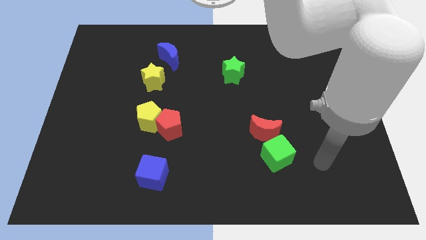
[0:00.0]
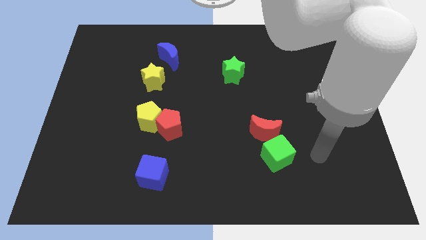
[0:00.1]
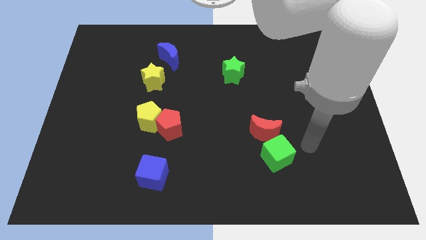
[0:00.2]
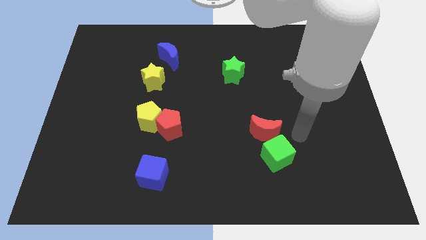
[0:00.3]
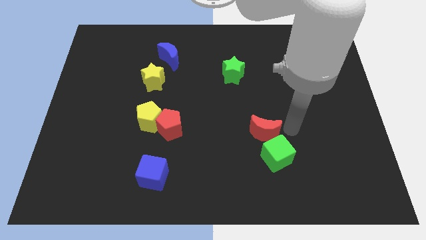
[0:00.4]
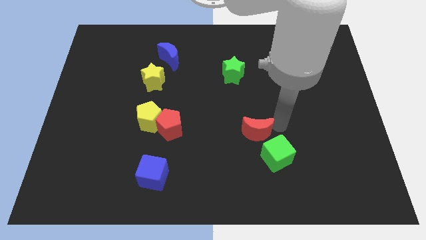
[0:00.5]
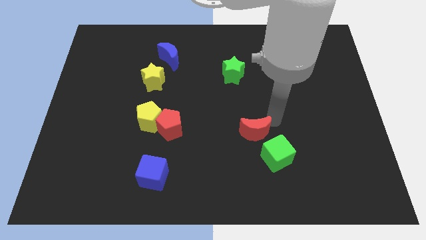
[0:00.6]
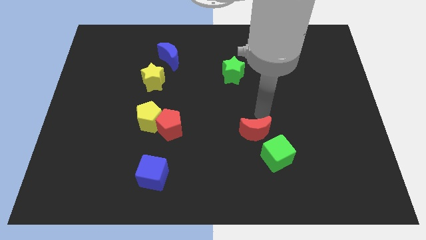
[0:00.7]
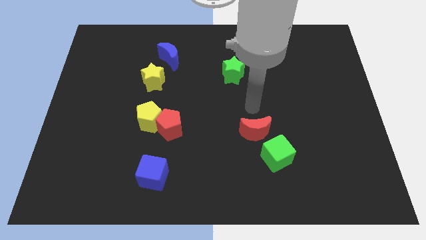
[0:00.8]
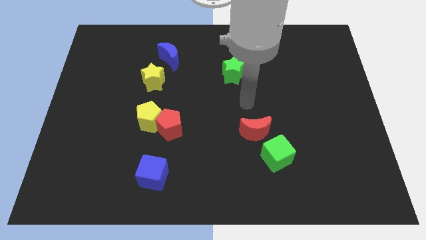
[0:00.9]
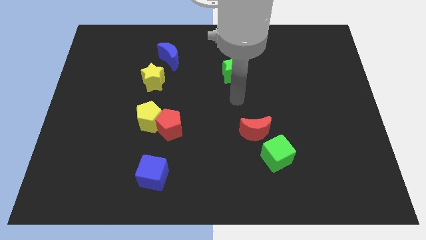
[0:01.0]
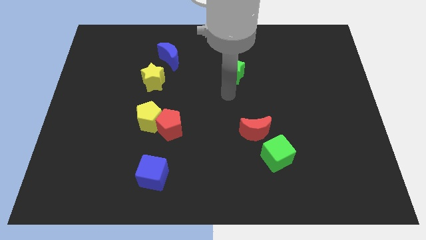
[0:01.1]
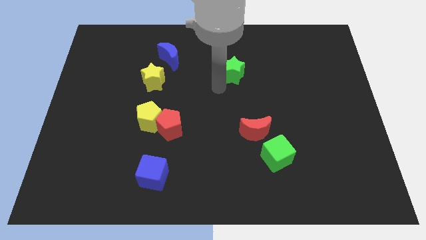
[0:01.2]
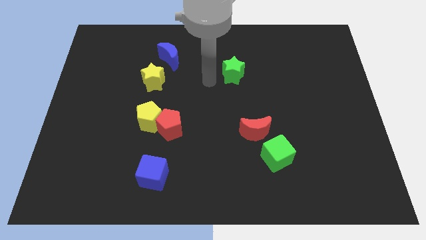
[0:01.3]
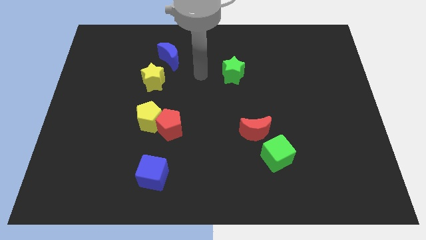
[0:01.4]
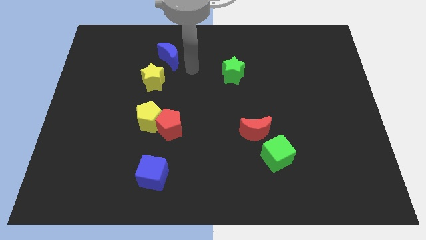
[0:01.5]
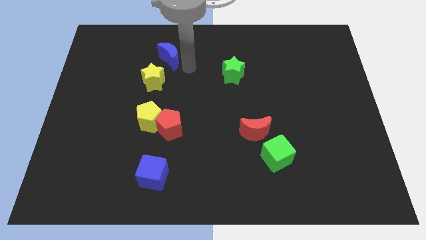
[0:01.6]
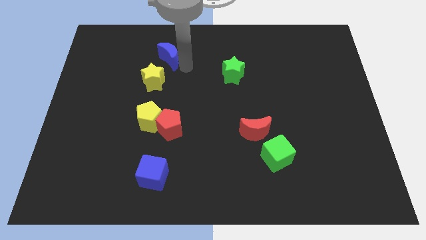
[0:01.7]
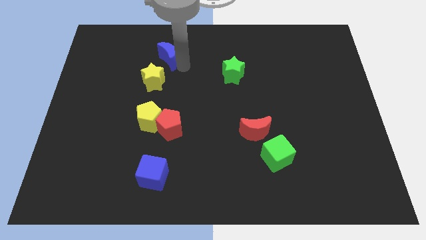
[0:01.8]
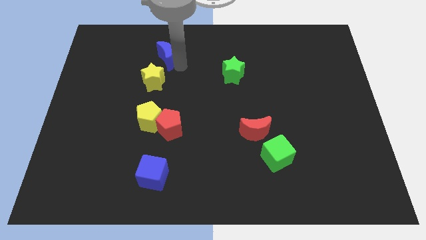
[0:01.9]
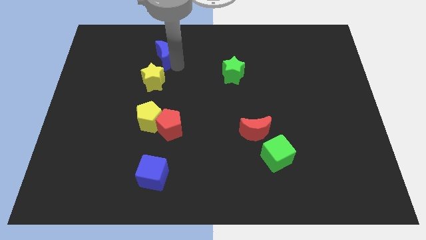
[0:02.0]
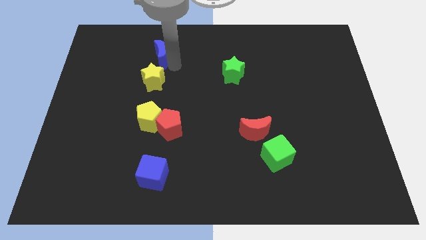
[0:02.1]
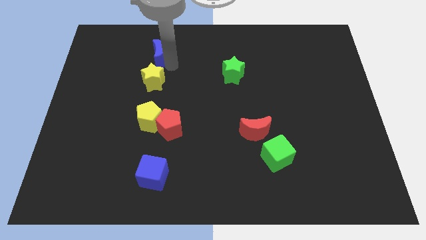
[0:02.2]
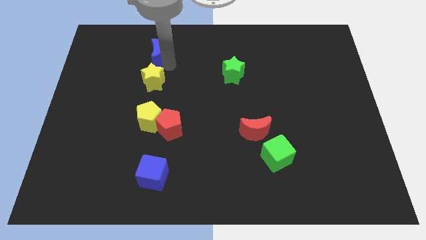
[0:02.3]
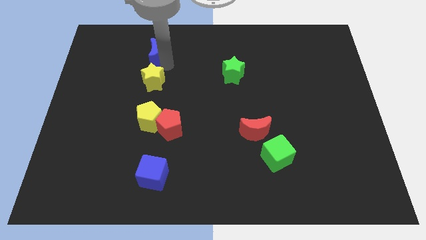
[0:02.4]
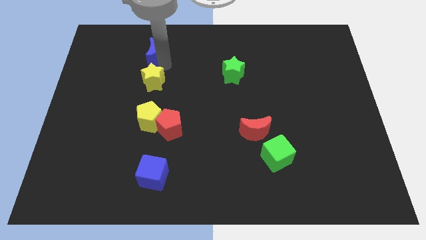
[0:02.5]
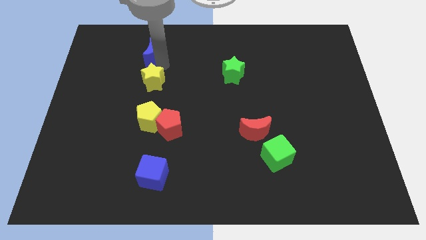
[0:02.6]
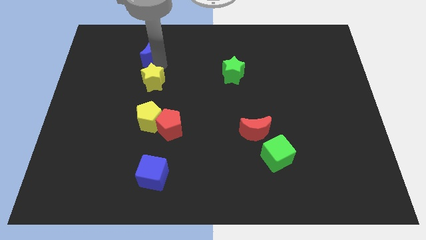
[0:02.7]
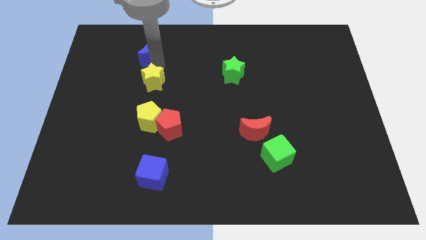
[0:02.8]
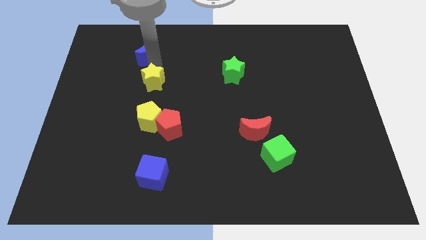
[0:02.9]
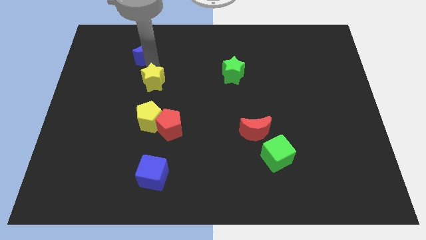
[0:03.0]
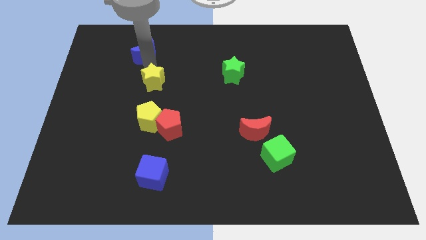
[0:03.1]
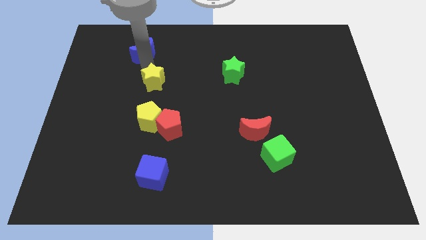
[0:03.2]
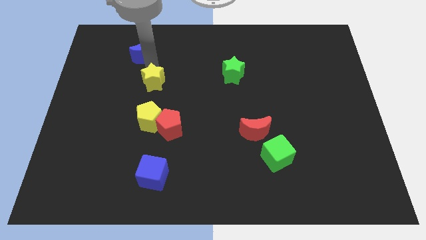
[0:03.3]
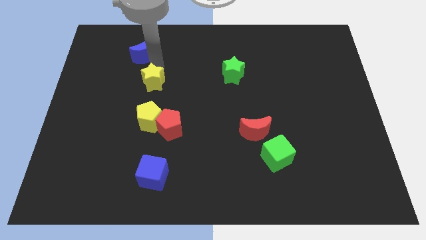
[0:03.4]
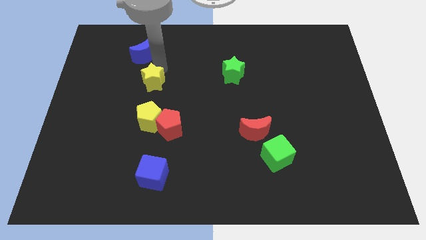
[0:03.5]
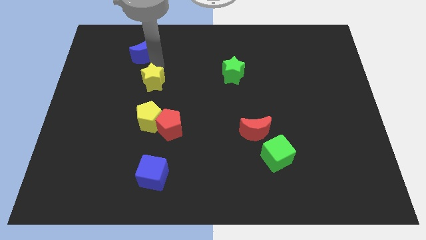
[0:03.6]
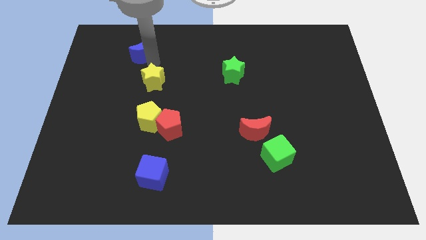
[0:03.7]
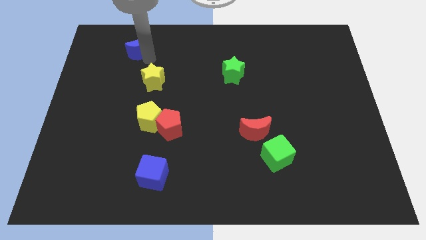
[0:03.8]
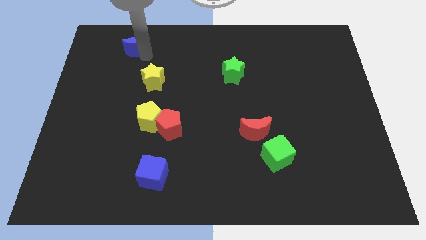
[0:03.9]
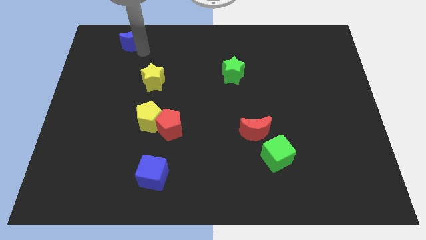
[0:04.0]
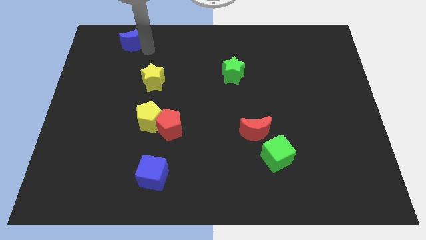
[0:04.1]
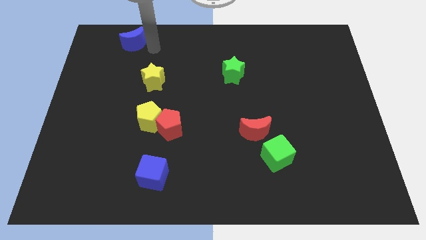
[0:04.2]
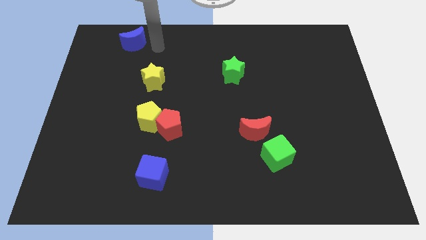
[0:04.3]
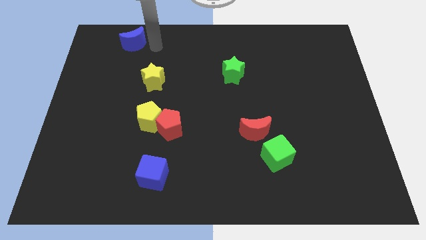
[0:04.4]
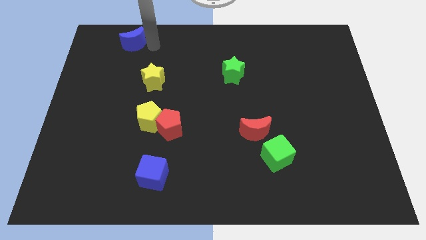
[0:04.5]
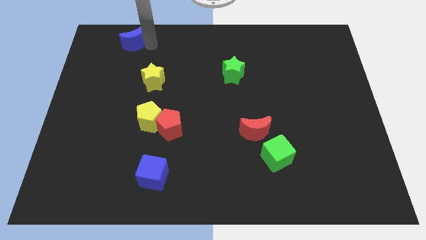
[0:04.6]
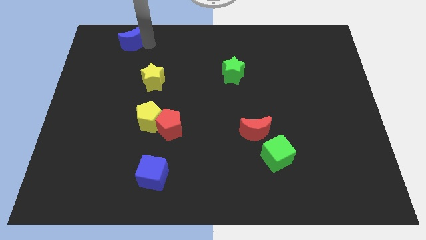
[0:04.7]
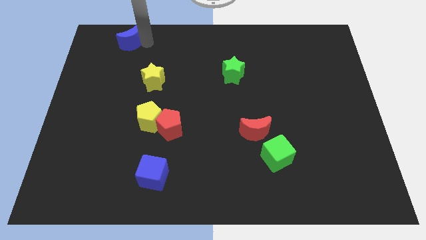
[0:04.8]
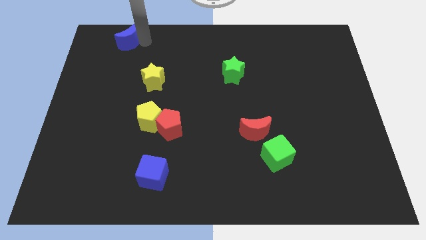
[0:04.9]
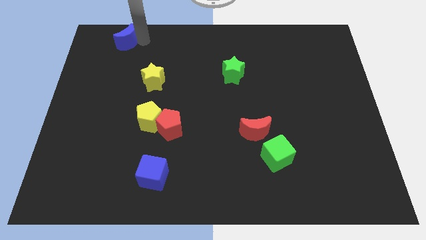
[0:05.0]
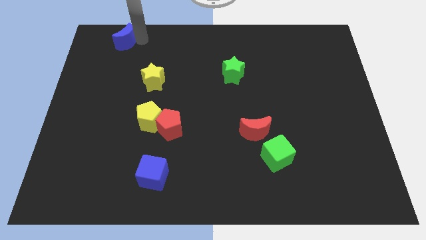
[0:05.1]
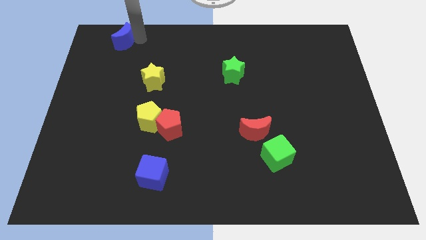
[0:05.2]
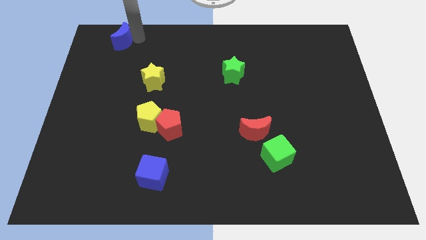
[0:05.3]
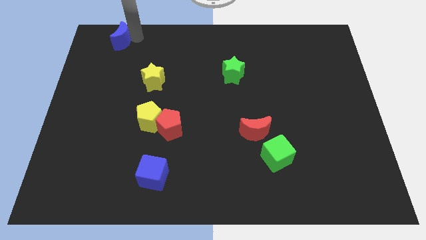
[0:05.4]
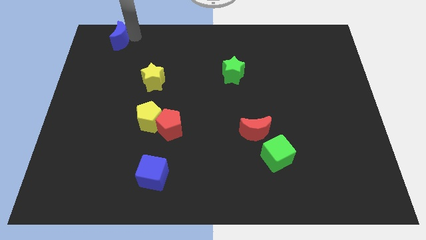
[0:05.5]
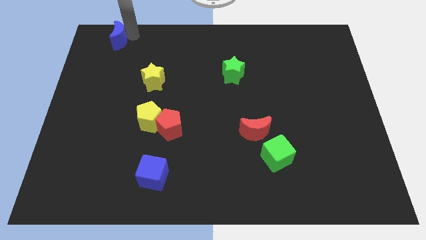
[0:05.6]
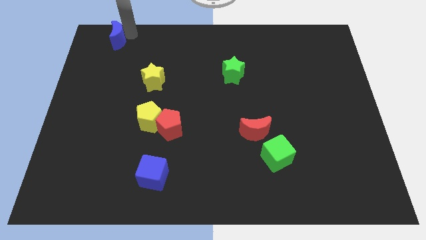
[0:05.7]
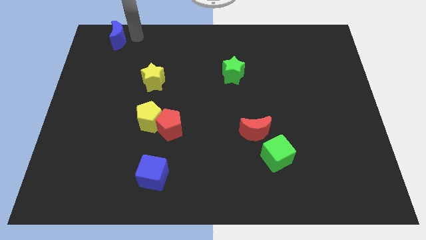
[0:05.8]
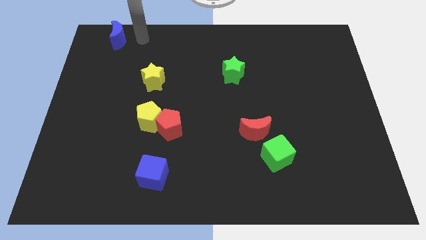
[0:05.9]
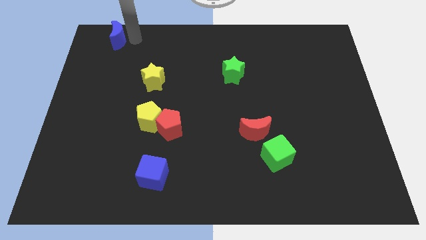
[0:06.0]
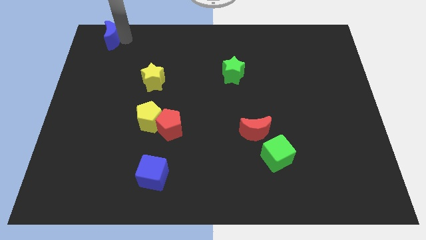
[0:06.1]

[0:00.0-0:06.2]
put the blue moon to the top left of the board

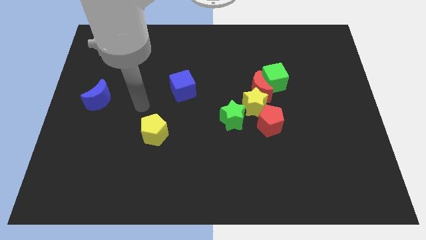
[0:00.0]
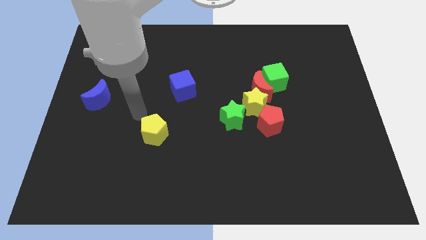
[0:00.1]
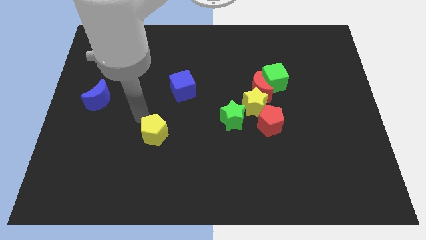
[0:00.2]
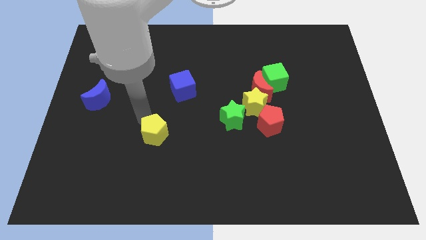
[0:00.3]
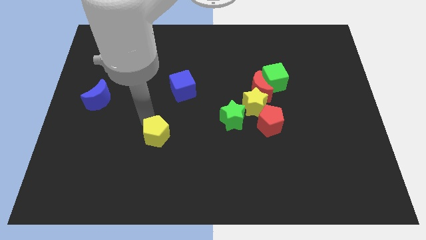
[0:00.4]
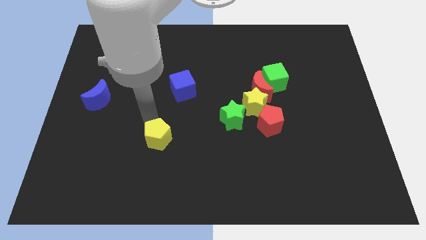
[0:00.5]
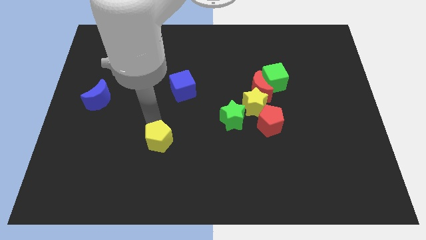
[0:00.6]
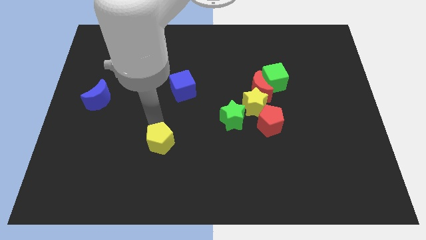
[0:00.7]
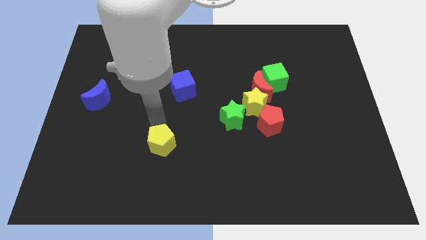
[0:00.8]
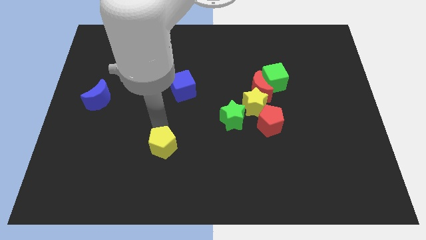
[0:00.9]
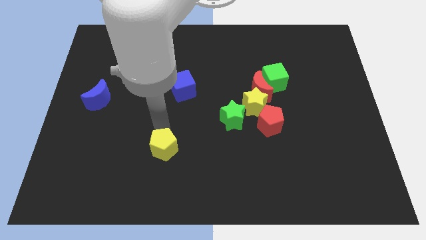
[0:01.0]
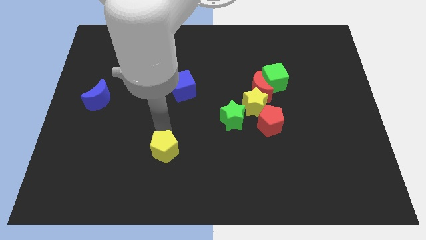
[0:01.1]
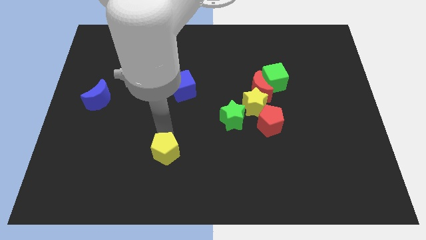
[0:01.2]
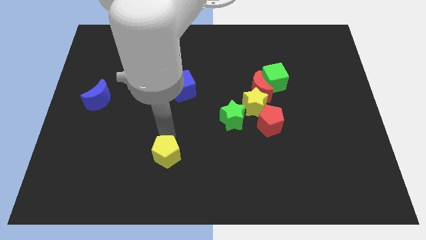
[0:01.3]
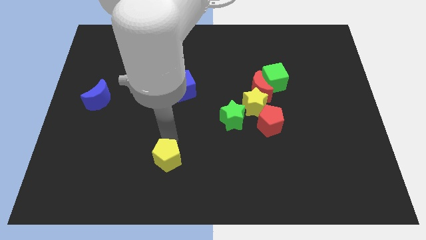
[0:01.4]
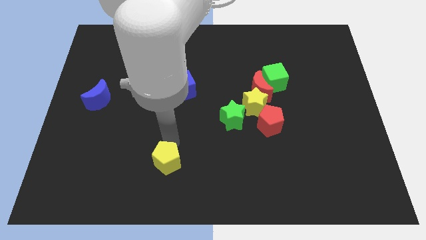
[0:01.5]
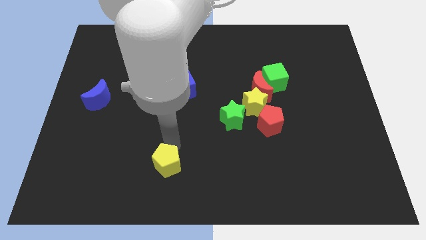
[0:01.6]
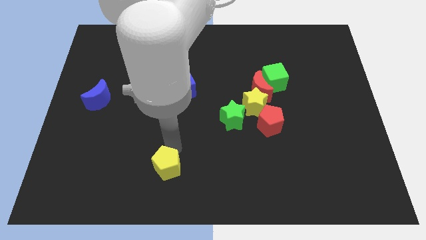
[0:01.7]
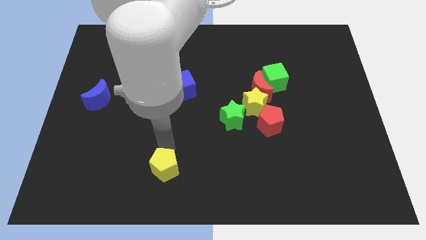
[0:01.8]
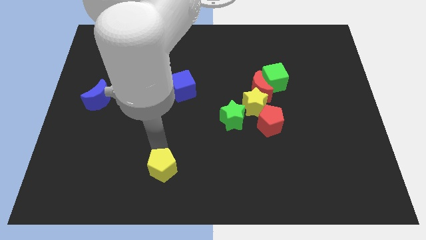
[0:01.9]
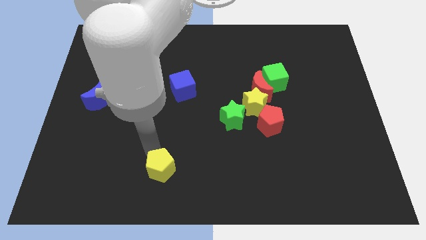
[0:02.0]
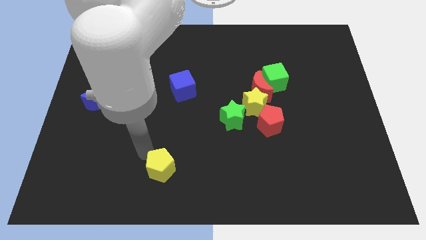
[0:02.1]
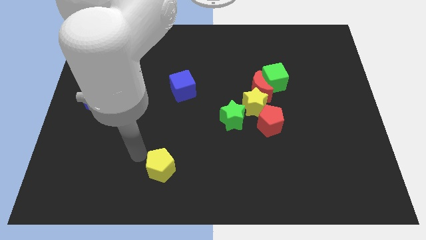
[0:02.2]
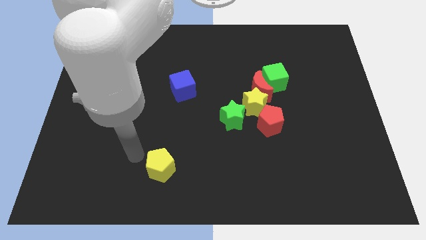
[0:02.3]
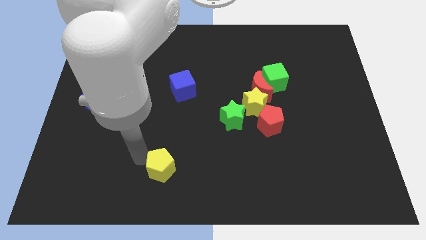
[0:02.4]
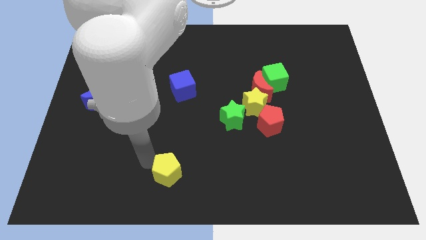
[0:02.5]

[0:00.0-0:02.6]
slide the yellow pentagon to the bottom
